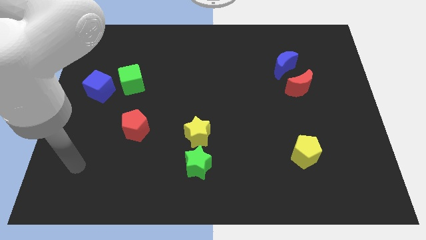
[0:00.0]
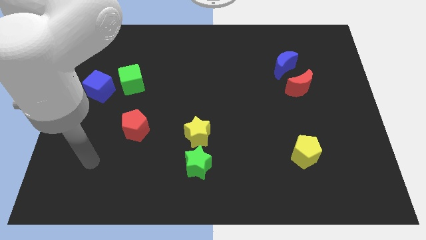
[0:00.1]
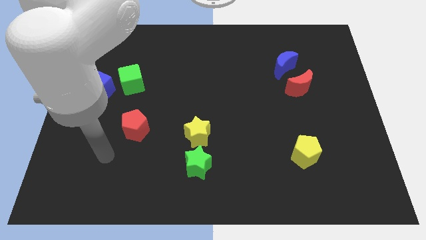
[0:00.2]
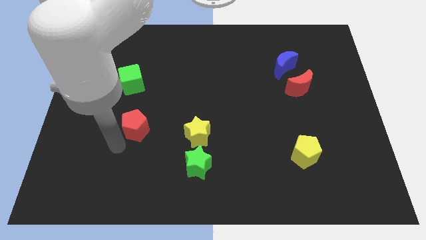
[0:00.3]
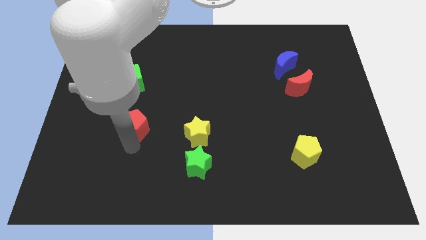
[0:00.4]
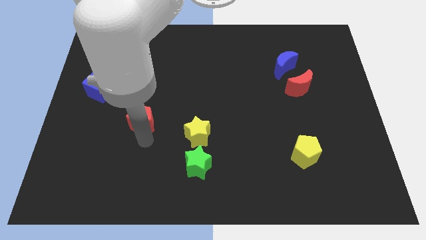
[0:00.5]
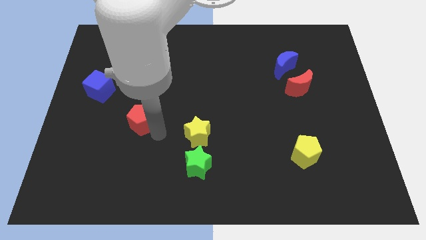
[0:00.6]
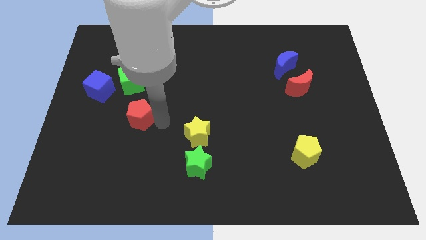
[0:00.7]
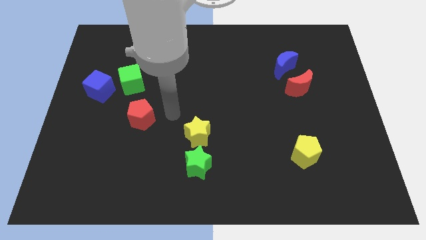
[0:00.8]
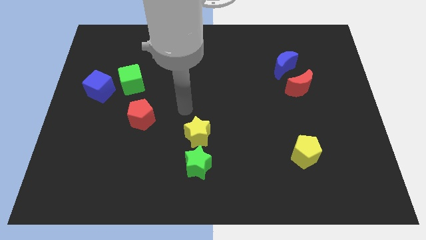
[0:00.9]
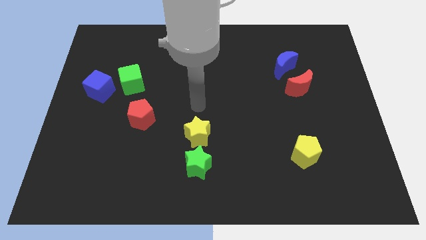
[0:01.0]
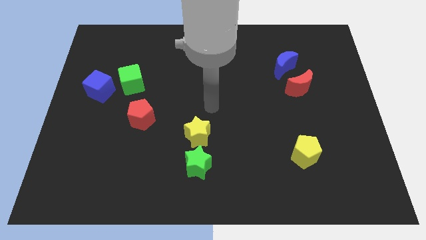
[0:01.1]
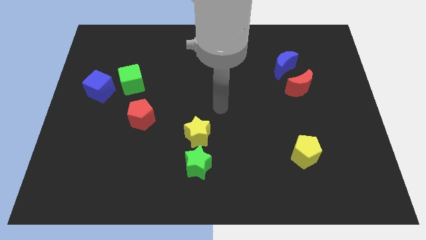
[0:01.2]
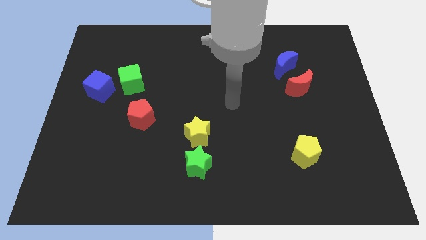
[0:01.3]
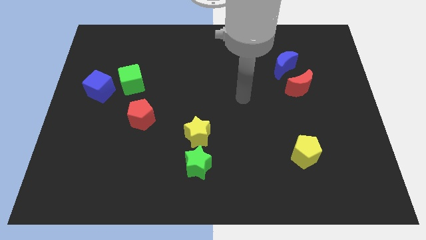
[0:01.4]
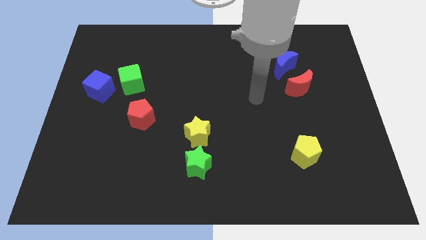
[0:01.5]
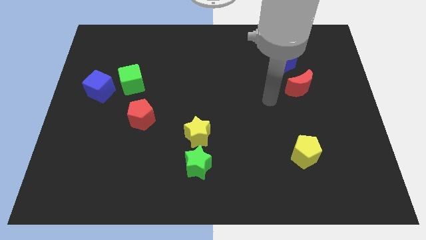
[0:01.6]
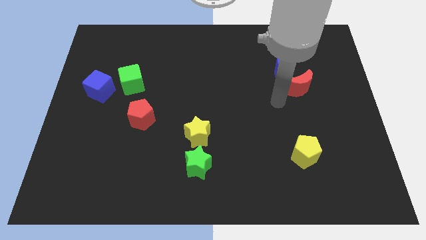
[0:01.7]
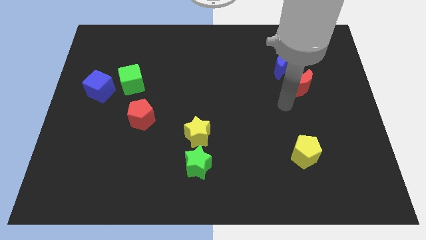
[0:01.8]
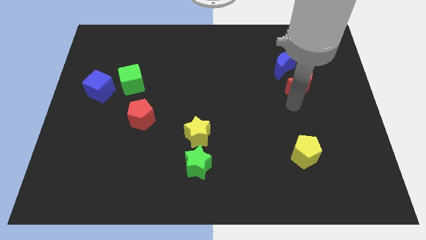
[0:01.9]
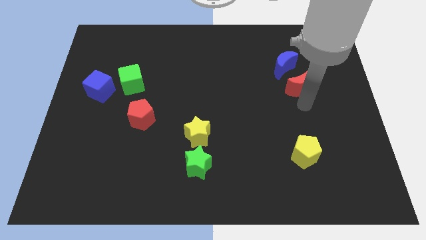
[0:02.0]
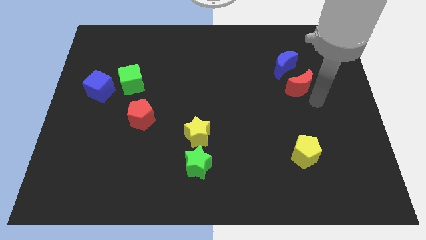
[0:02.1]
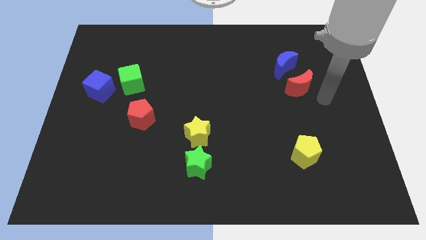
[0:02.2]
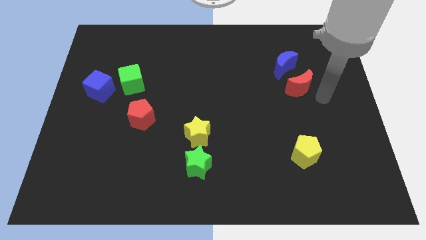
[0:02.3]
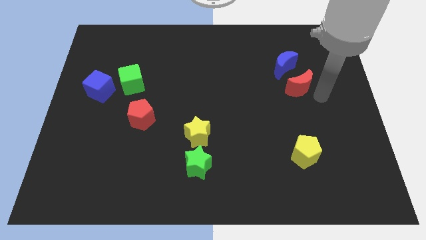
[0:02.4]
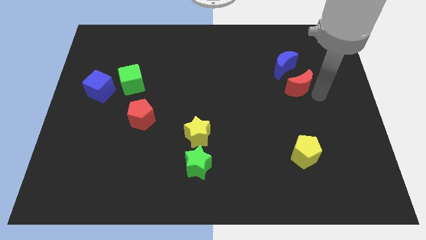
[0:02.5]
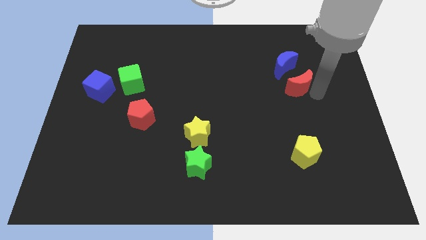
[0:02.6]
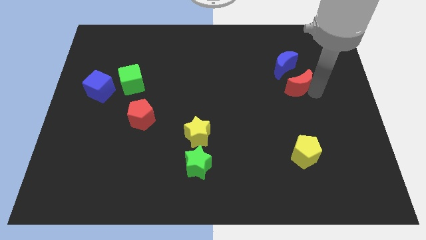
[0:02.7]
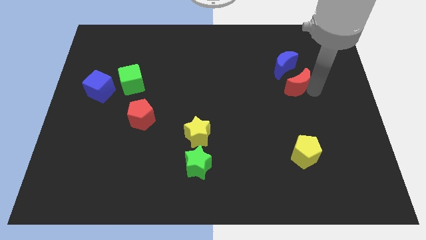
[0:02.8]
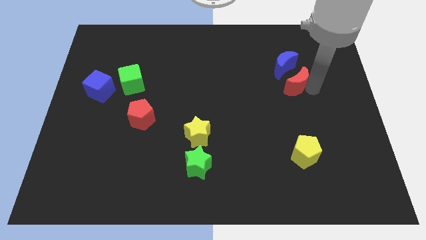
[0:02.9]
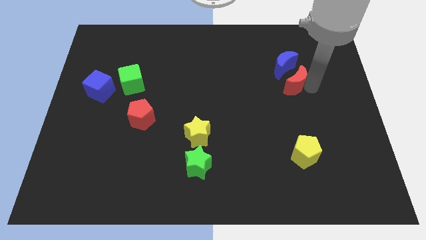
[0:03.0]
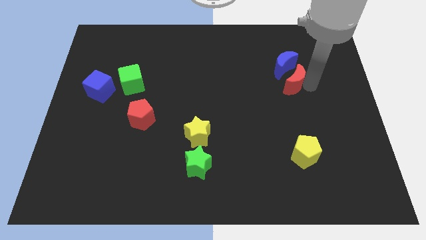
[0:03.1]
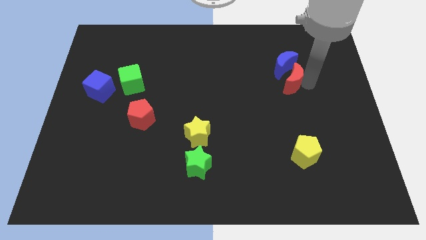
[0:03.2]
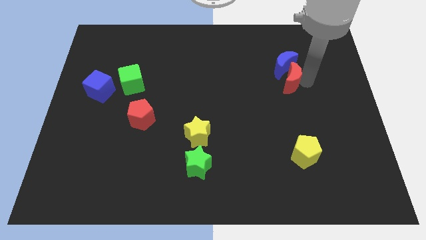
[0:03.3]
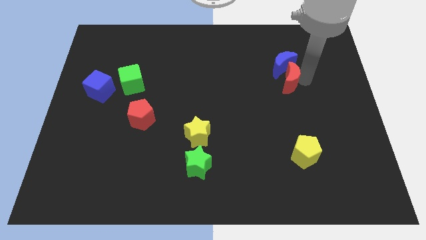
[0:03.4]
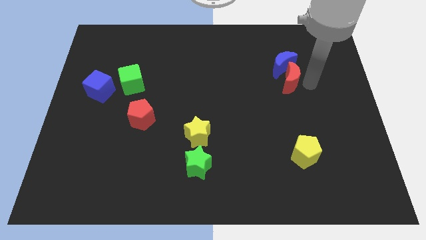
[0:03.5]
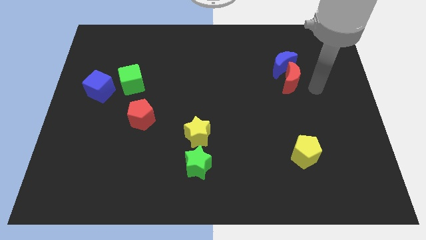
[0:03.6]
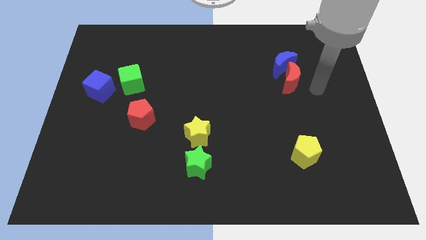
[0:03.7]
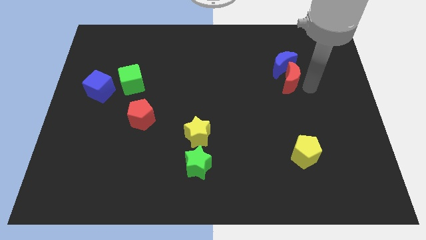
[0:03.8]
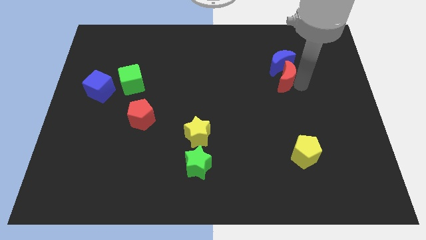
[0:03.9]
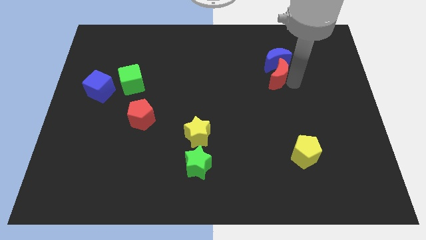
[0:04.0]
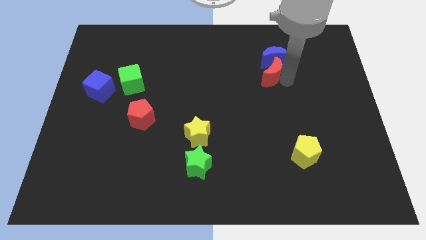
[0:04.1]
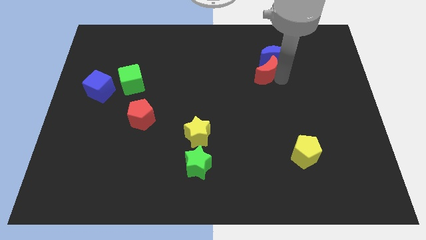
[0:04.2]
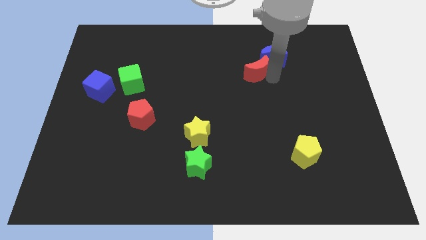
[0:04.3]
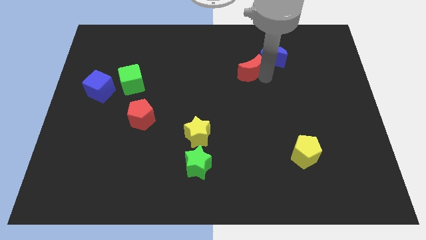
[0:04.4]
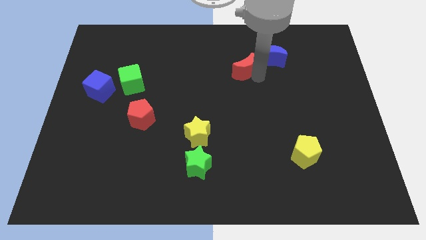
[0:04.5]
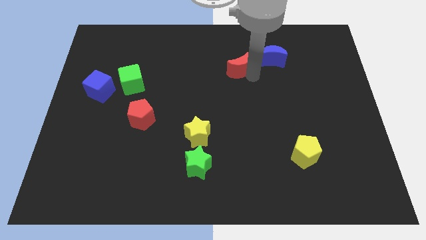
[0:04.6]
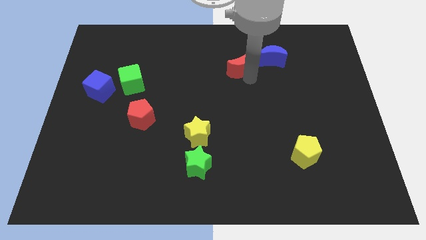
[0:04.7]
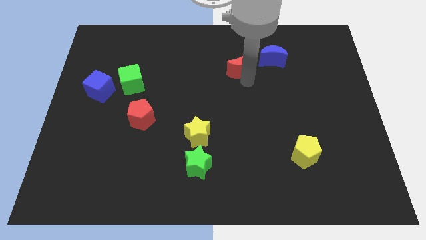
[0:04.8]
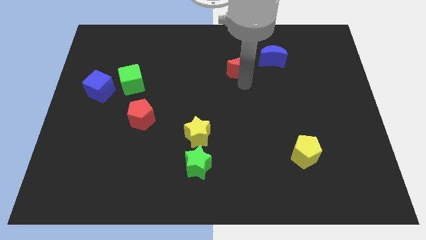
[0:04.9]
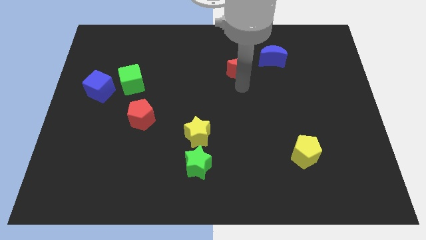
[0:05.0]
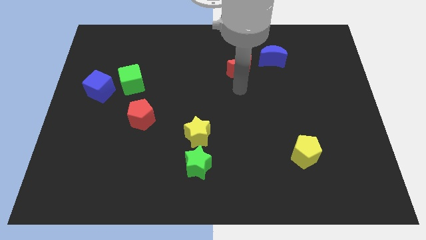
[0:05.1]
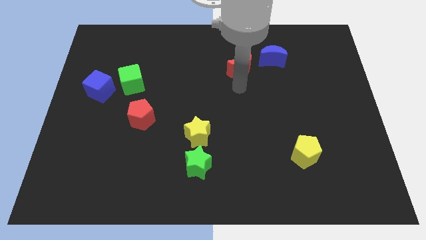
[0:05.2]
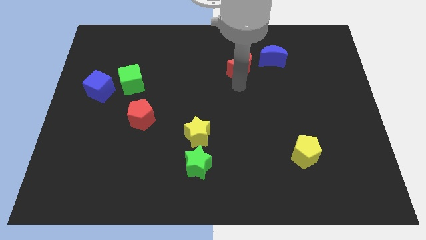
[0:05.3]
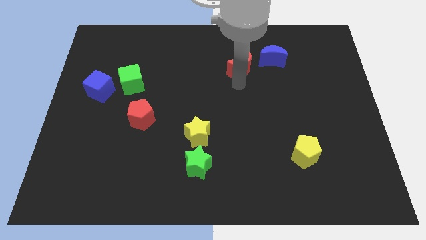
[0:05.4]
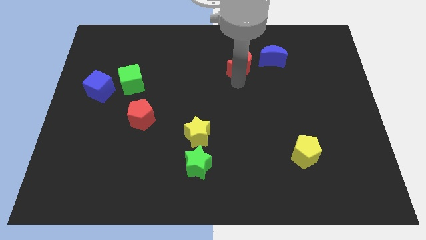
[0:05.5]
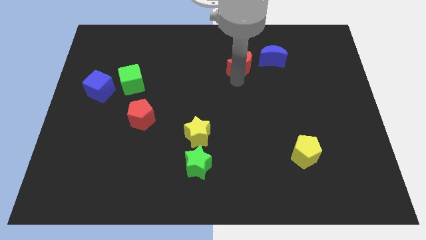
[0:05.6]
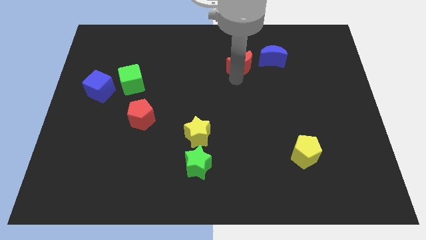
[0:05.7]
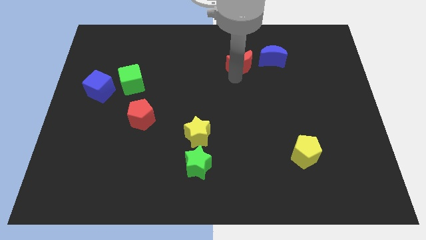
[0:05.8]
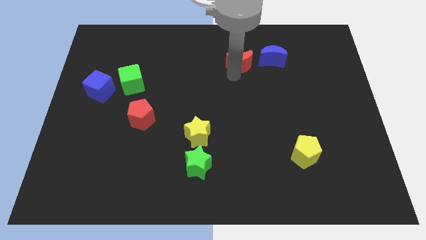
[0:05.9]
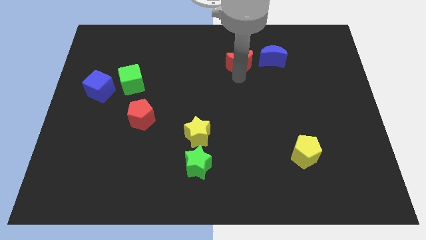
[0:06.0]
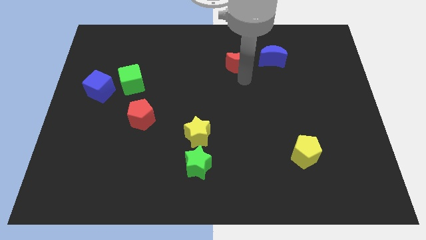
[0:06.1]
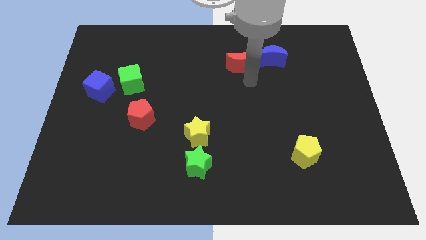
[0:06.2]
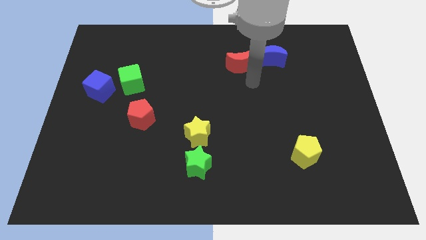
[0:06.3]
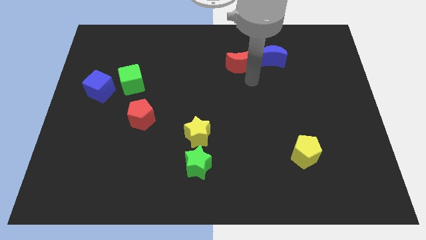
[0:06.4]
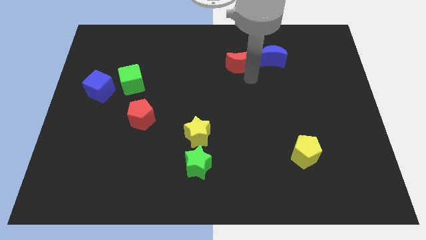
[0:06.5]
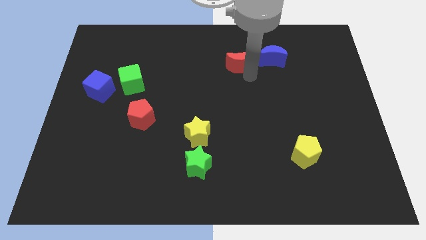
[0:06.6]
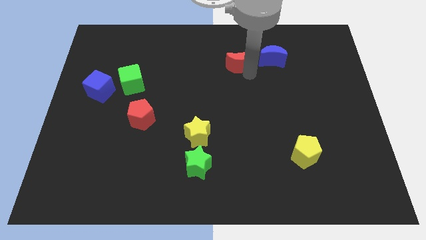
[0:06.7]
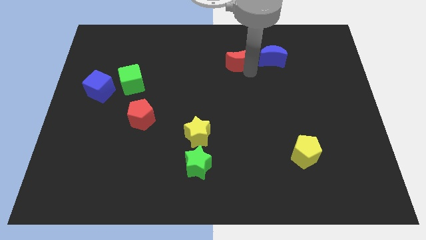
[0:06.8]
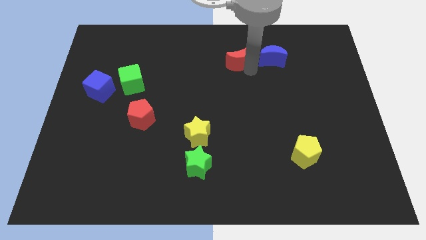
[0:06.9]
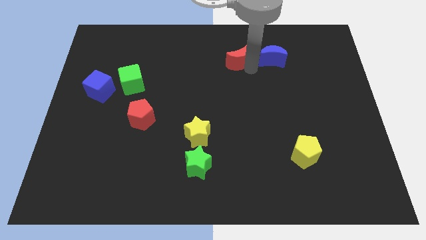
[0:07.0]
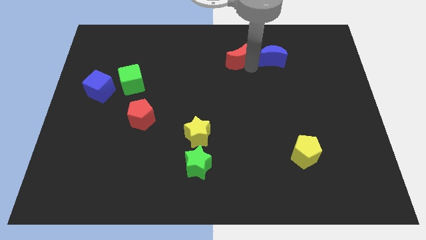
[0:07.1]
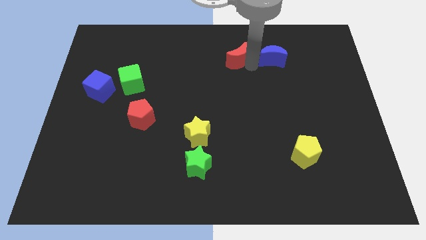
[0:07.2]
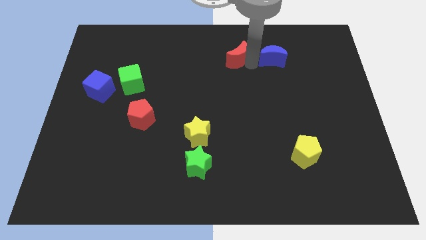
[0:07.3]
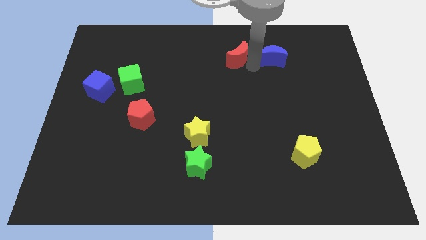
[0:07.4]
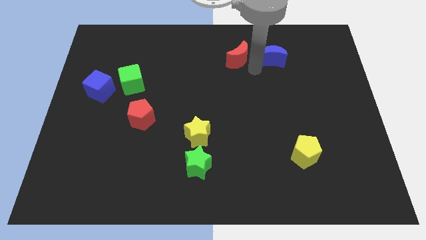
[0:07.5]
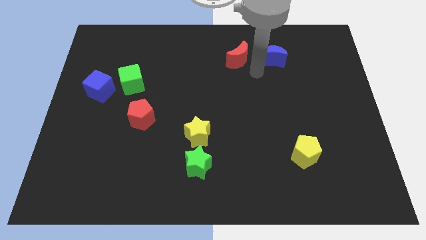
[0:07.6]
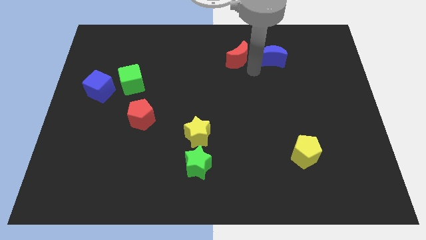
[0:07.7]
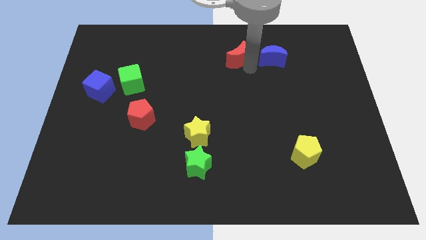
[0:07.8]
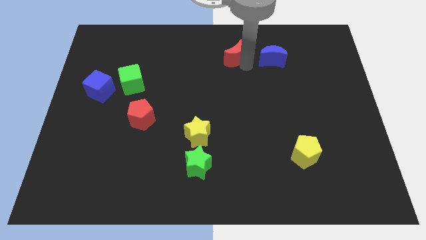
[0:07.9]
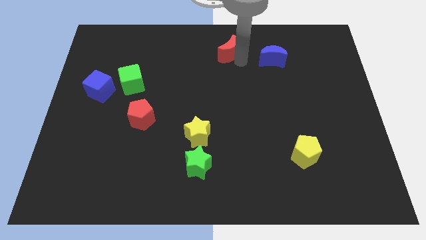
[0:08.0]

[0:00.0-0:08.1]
slide the red moon to the towards your base
